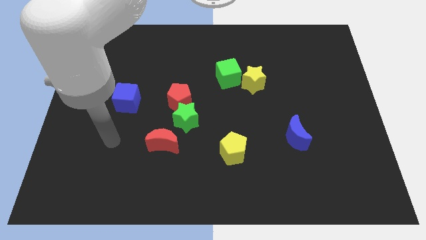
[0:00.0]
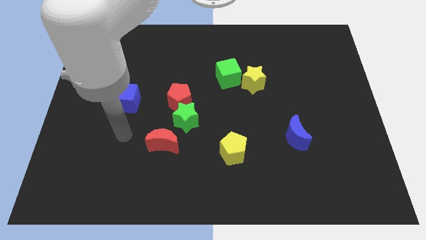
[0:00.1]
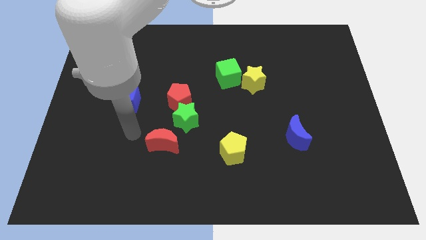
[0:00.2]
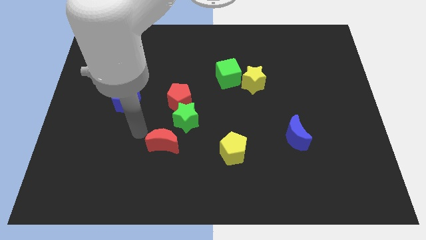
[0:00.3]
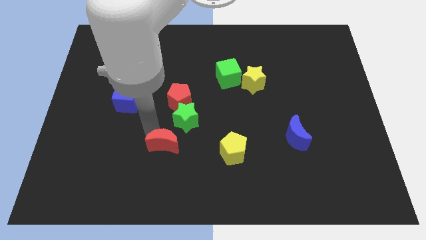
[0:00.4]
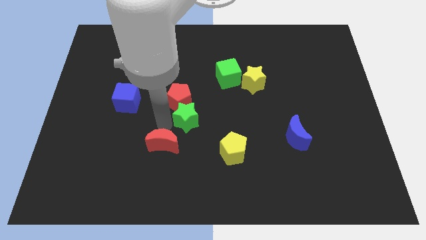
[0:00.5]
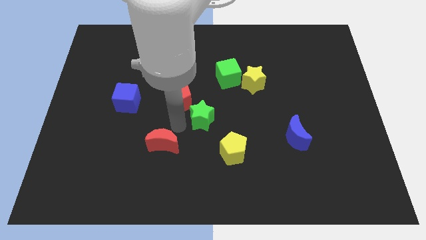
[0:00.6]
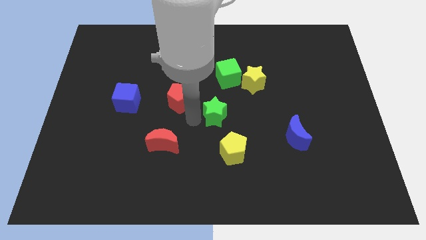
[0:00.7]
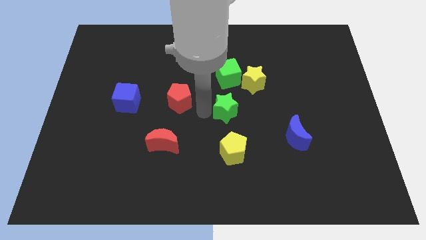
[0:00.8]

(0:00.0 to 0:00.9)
separate the red pentagon from the green star

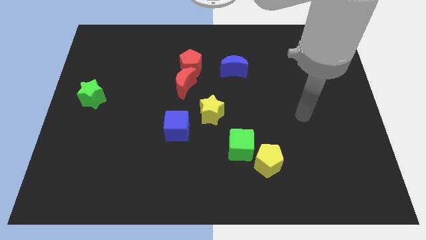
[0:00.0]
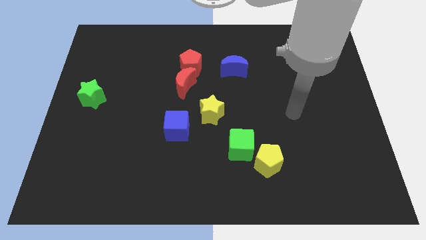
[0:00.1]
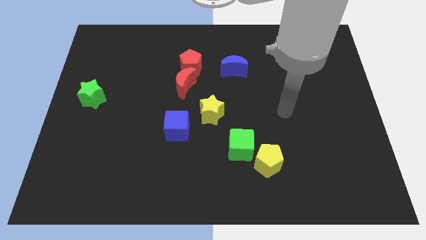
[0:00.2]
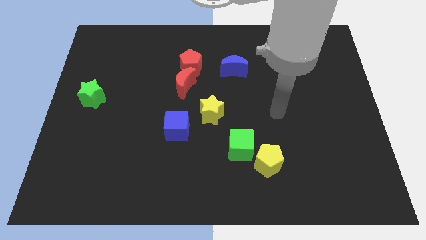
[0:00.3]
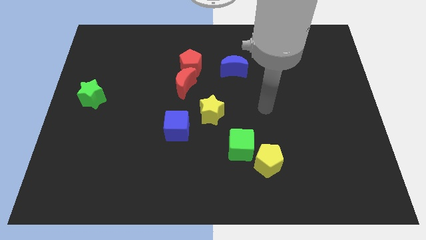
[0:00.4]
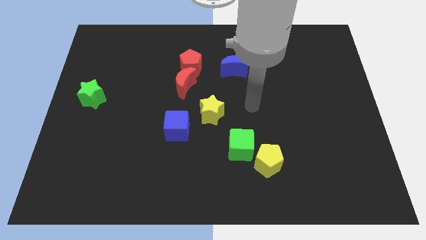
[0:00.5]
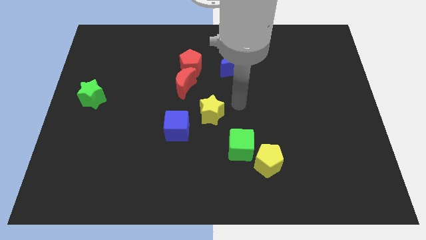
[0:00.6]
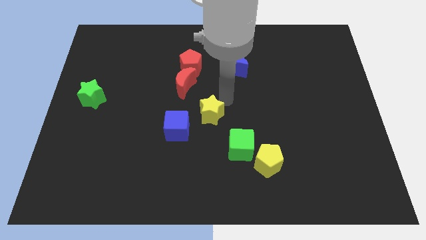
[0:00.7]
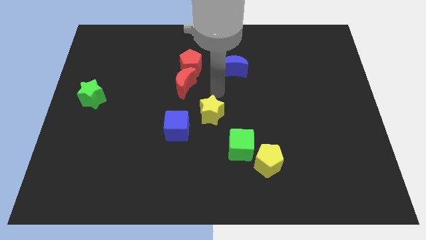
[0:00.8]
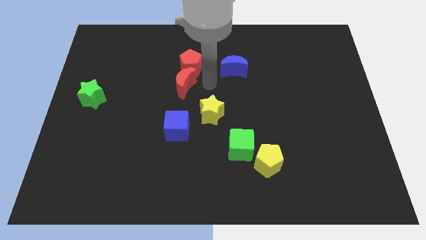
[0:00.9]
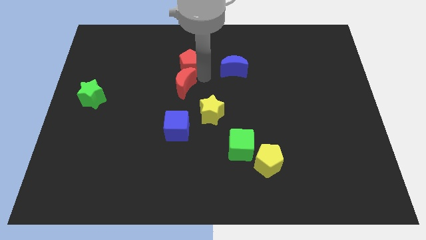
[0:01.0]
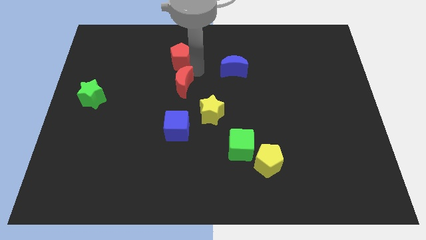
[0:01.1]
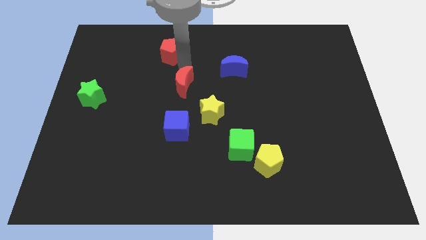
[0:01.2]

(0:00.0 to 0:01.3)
pull the red moon apart from the red pentagon

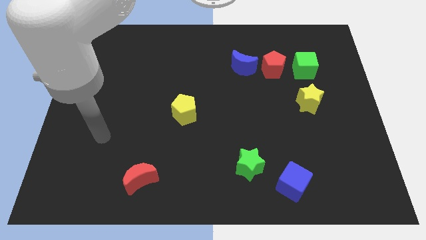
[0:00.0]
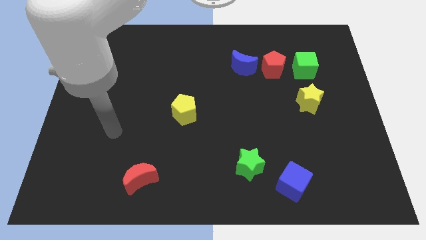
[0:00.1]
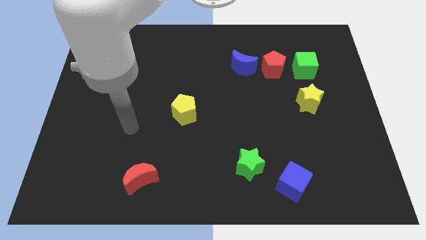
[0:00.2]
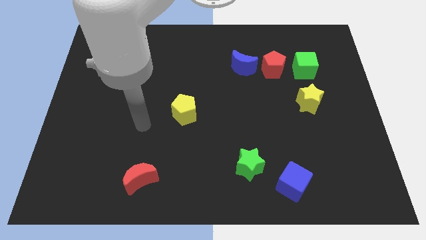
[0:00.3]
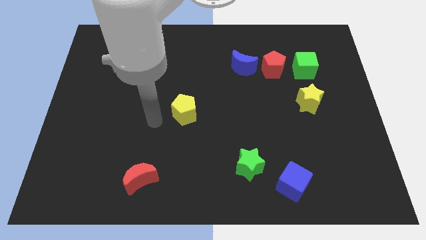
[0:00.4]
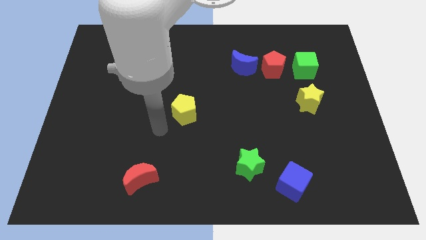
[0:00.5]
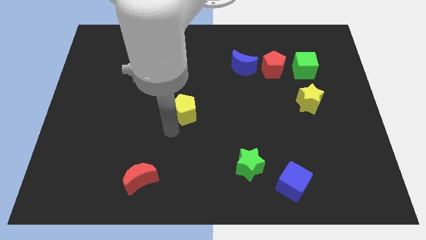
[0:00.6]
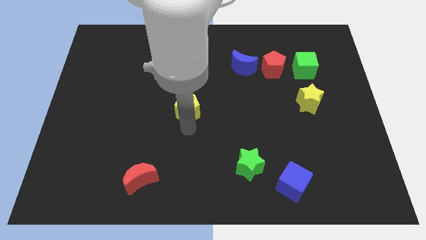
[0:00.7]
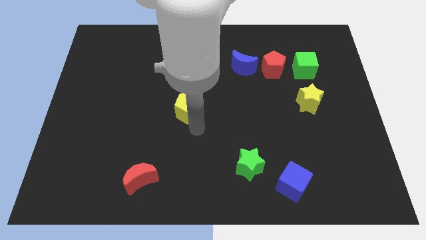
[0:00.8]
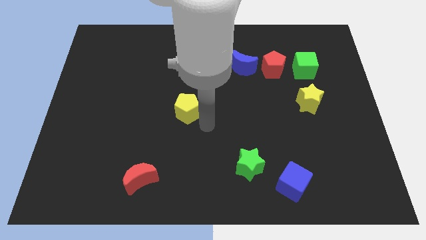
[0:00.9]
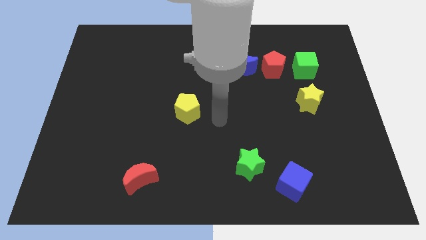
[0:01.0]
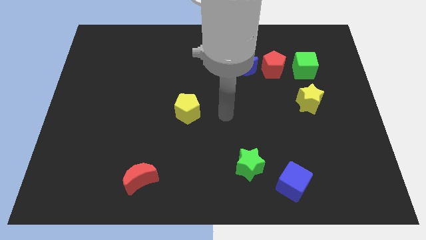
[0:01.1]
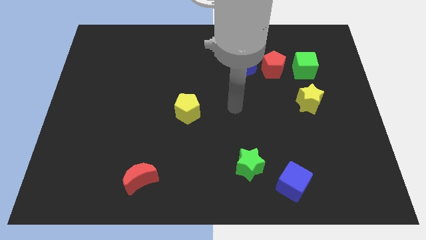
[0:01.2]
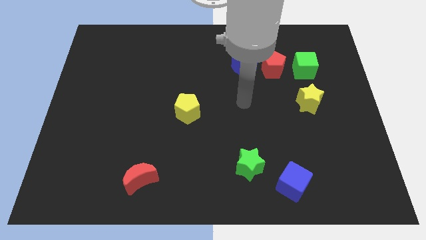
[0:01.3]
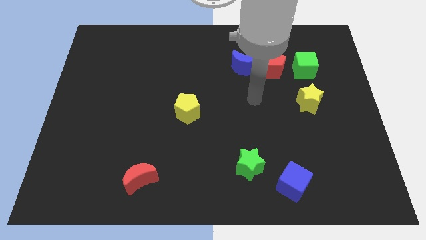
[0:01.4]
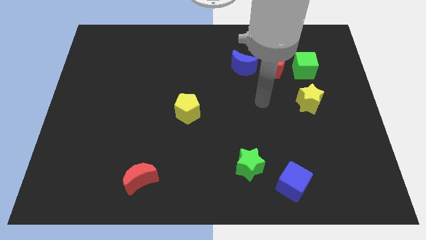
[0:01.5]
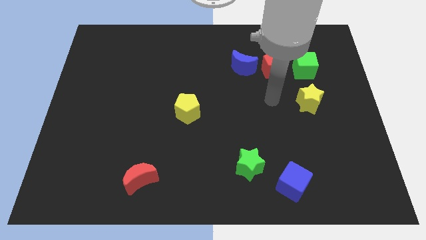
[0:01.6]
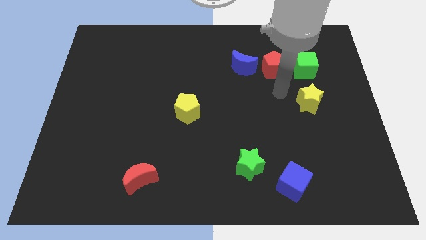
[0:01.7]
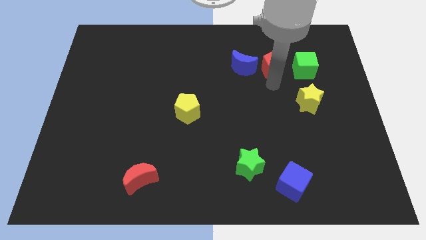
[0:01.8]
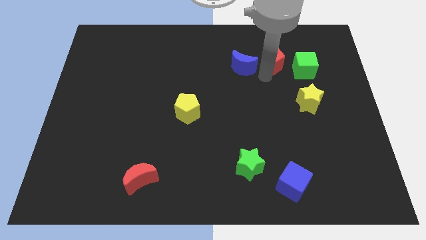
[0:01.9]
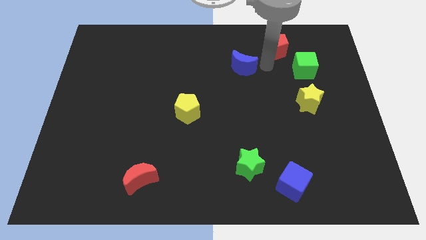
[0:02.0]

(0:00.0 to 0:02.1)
separate the blue moon from the red pentagon

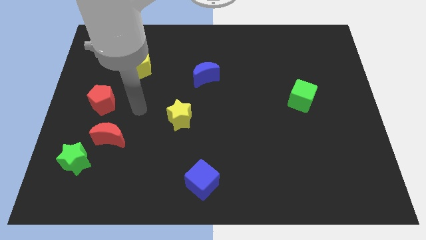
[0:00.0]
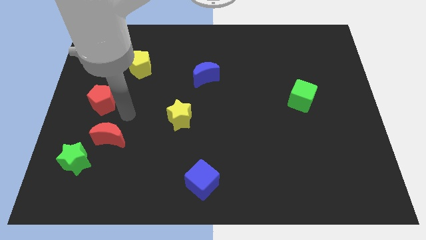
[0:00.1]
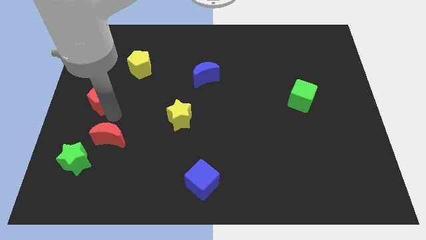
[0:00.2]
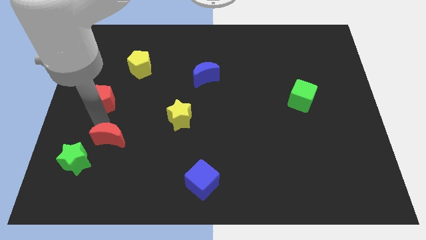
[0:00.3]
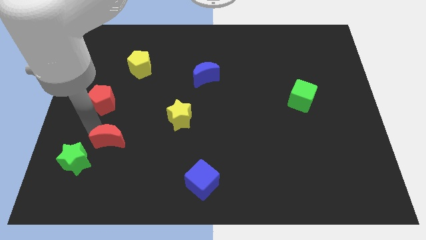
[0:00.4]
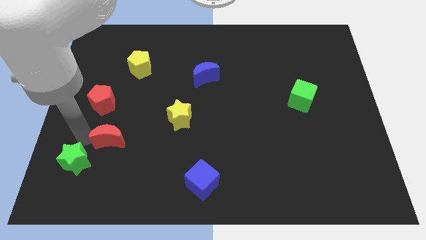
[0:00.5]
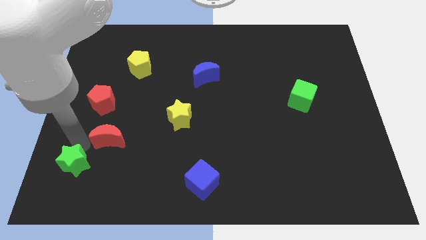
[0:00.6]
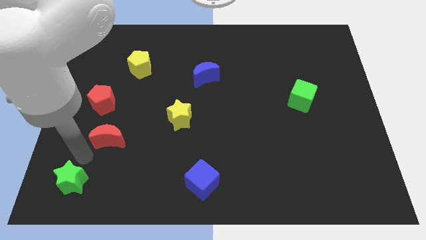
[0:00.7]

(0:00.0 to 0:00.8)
pull the red moon apart from the green star

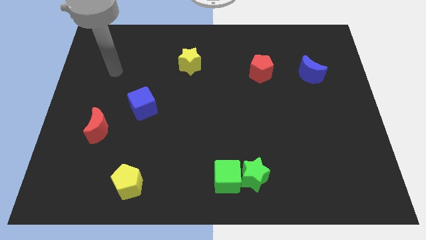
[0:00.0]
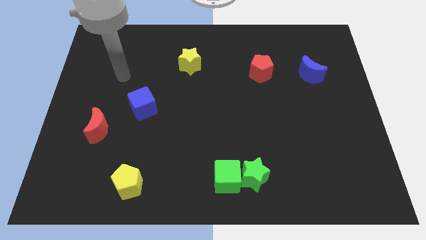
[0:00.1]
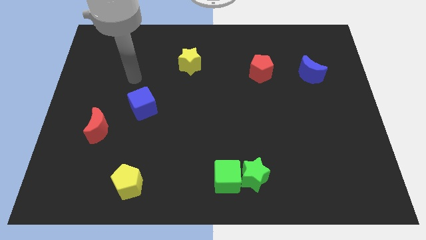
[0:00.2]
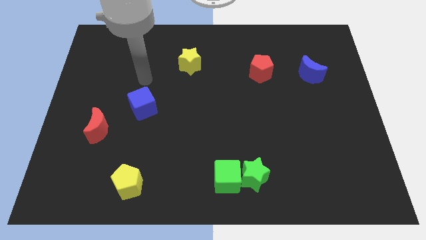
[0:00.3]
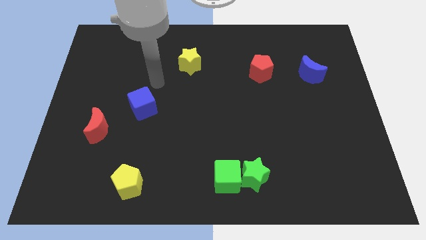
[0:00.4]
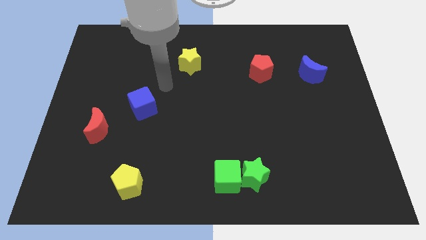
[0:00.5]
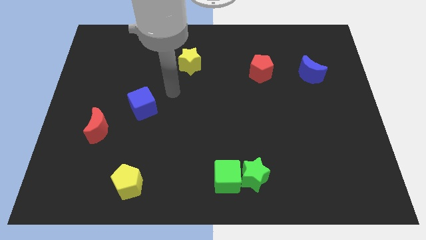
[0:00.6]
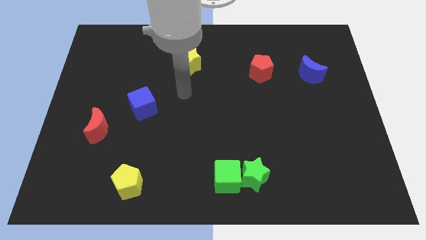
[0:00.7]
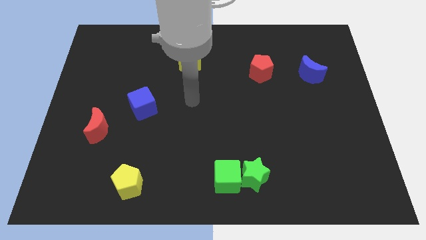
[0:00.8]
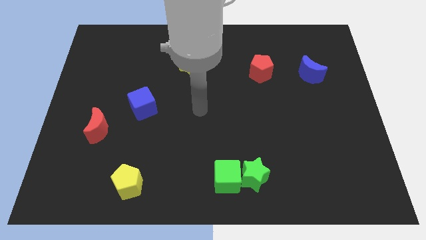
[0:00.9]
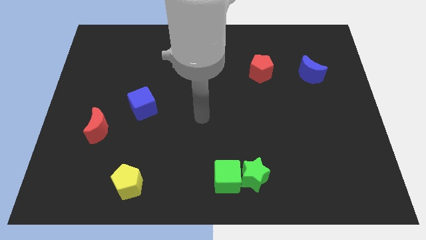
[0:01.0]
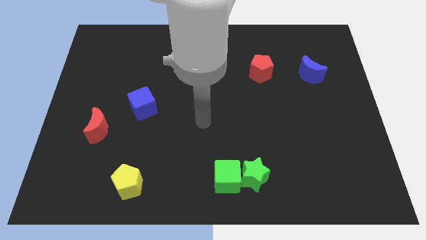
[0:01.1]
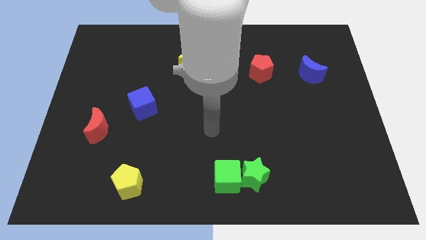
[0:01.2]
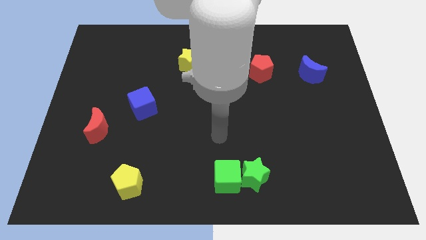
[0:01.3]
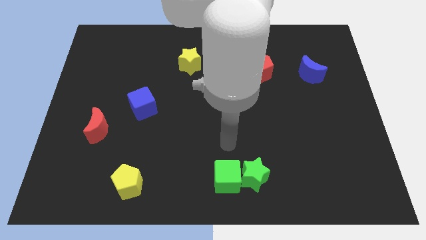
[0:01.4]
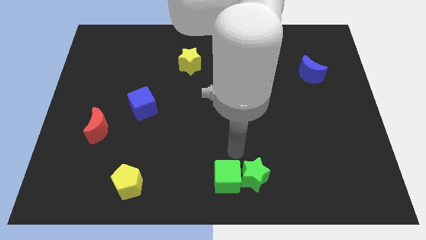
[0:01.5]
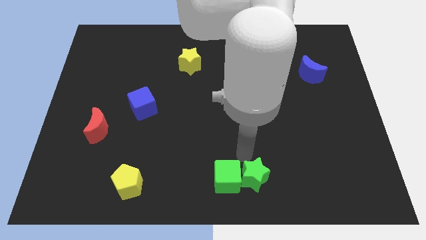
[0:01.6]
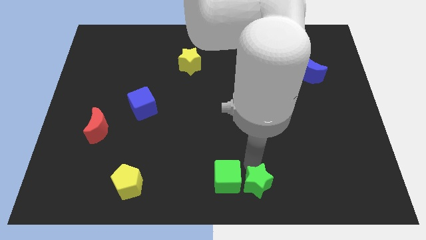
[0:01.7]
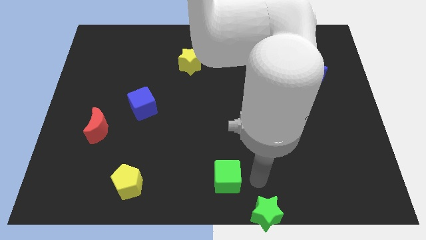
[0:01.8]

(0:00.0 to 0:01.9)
separate the green cube from the green star

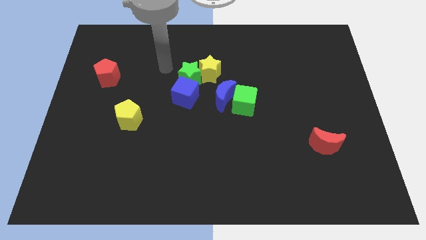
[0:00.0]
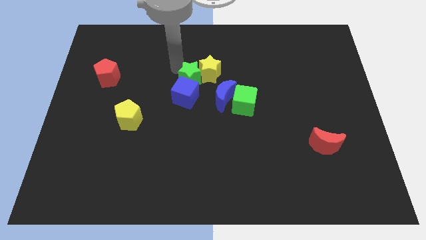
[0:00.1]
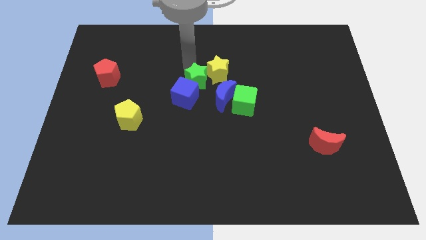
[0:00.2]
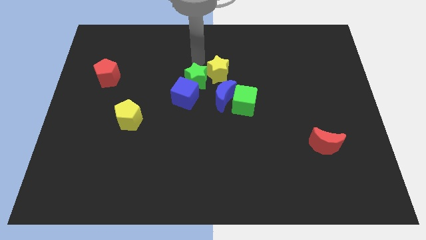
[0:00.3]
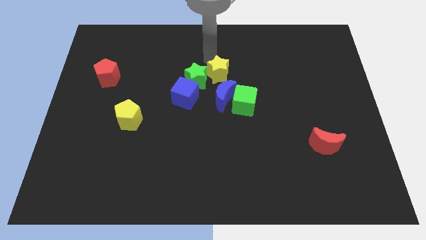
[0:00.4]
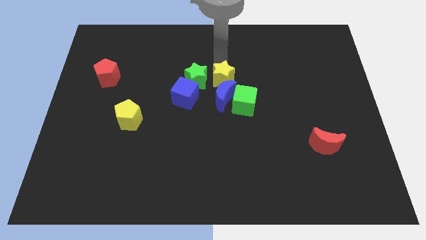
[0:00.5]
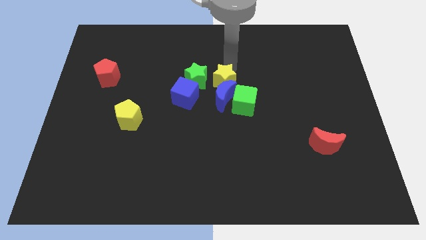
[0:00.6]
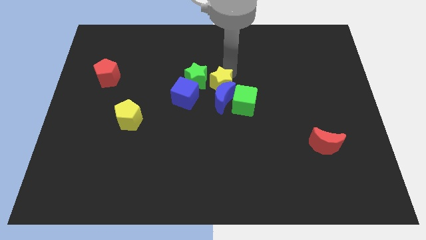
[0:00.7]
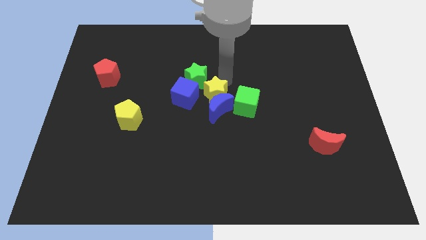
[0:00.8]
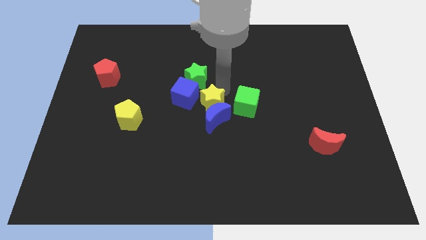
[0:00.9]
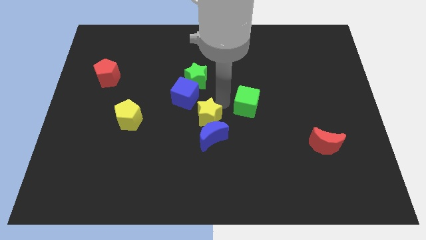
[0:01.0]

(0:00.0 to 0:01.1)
separate the green cube from the blue moon

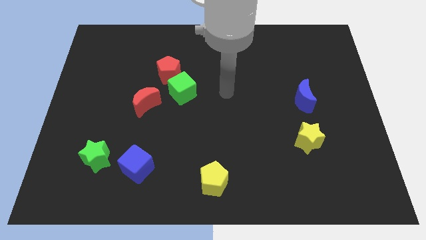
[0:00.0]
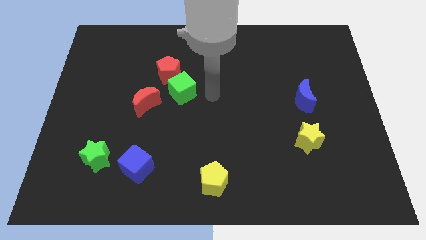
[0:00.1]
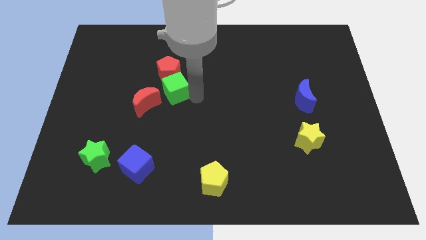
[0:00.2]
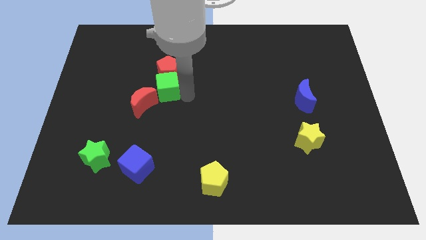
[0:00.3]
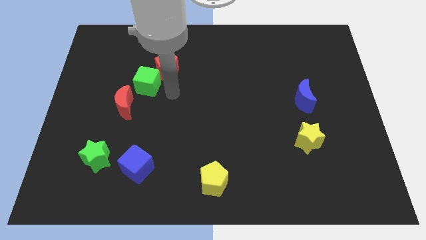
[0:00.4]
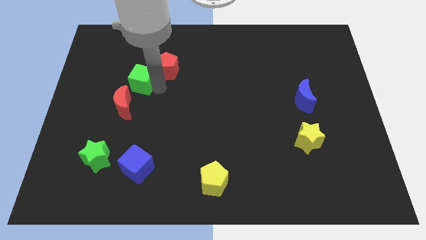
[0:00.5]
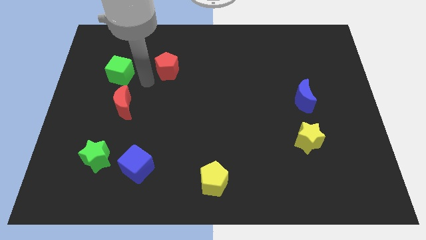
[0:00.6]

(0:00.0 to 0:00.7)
move the red pentagon away from the green cube

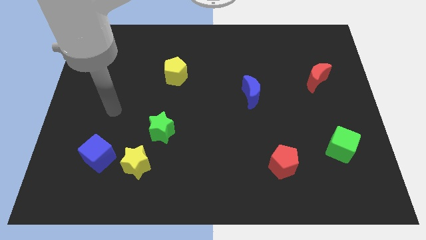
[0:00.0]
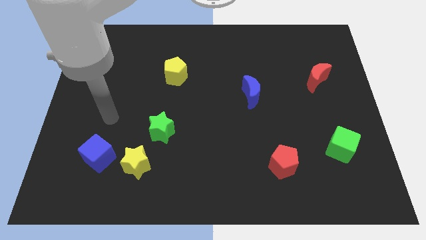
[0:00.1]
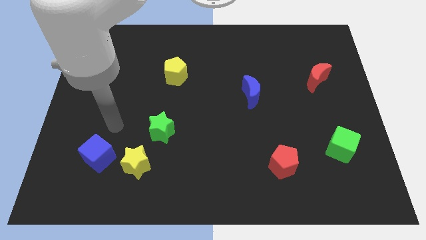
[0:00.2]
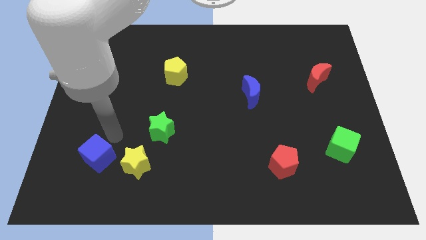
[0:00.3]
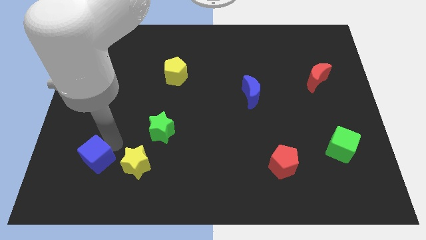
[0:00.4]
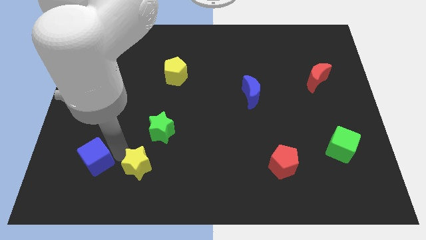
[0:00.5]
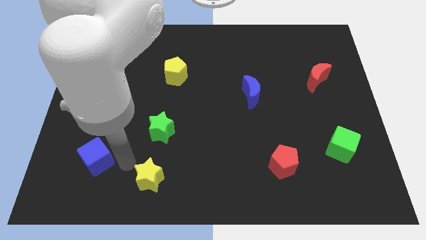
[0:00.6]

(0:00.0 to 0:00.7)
move the blue cube away from the yellow star

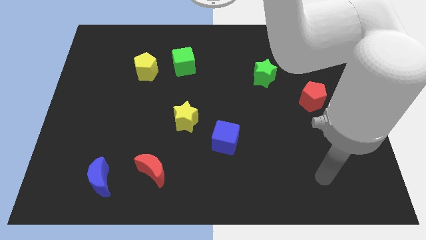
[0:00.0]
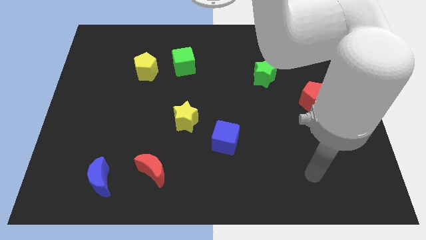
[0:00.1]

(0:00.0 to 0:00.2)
move the green cube away from the yellow pentagon
